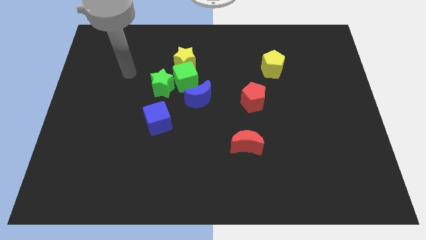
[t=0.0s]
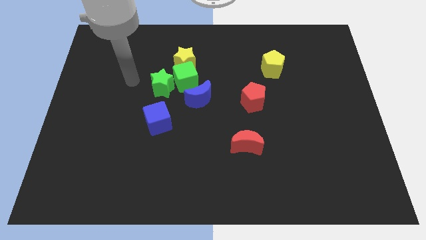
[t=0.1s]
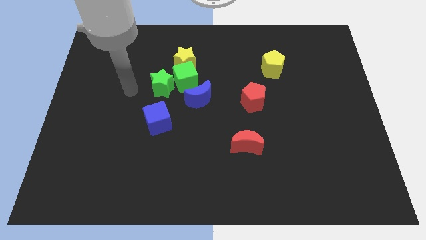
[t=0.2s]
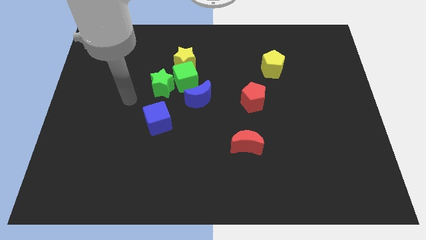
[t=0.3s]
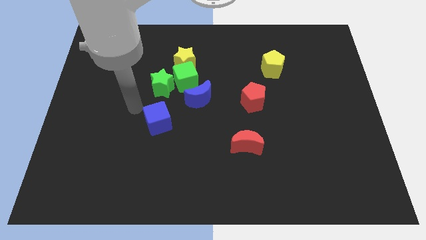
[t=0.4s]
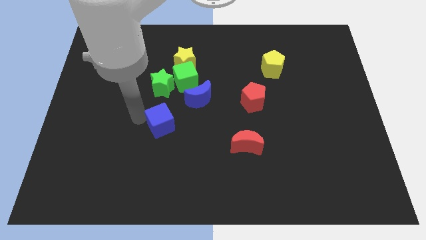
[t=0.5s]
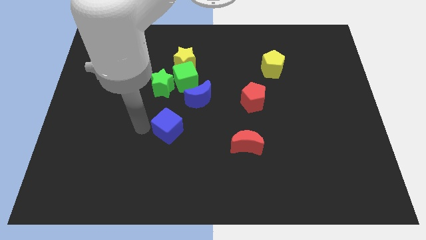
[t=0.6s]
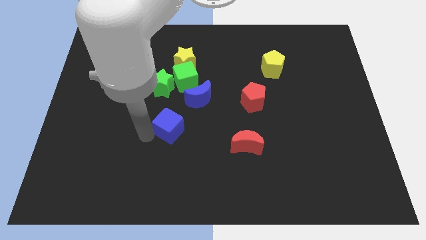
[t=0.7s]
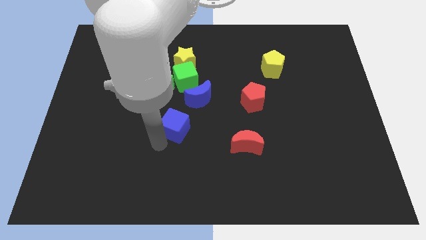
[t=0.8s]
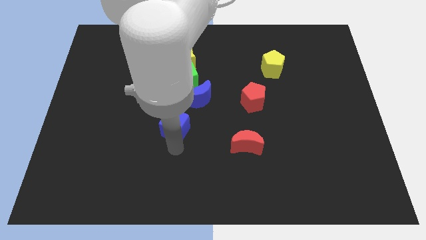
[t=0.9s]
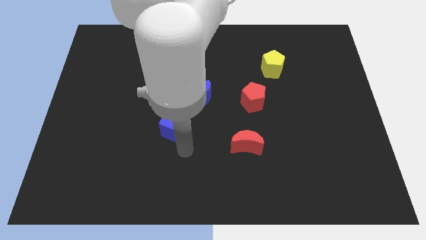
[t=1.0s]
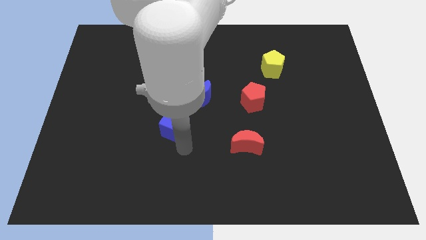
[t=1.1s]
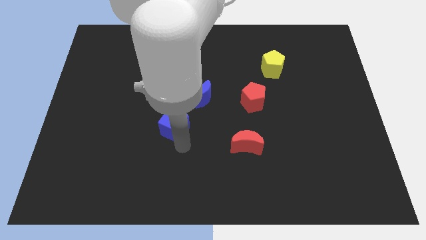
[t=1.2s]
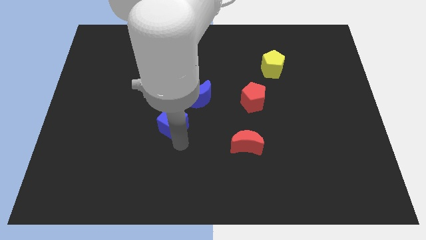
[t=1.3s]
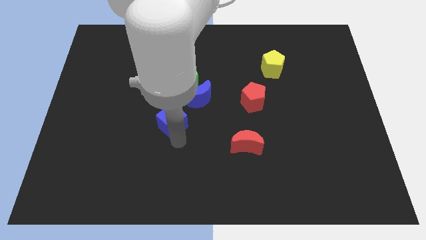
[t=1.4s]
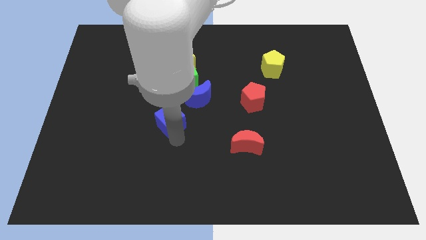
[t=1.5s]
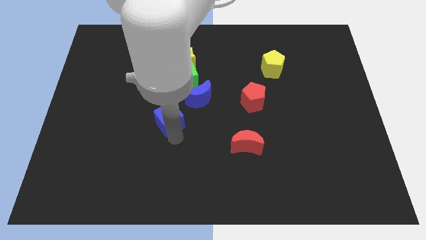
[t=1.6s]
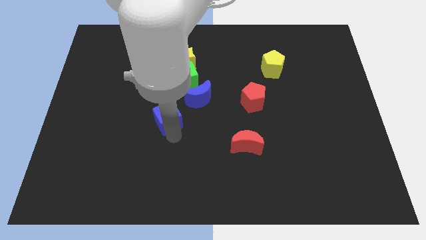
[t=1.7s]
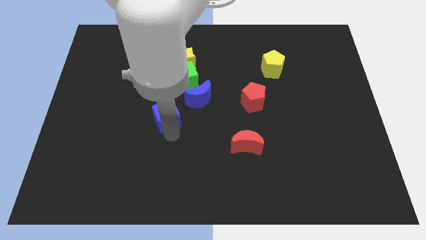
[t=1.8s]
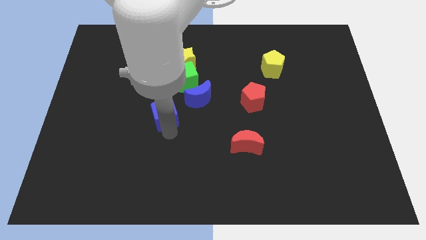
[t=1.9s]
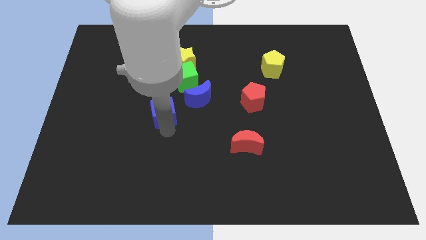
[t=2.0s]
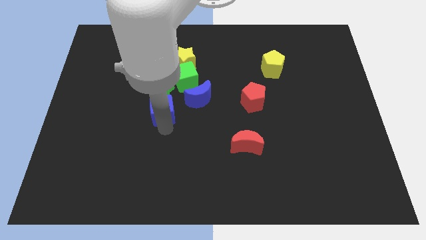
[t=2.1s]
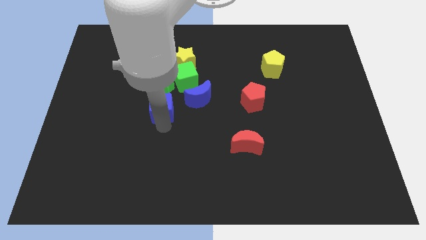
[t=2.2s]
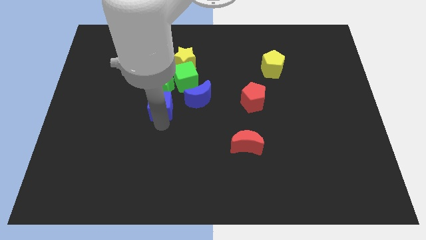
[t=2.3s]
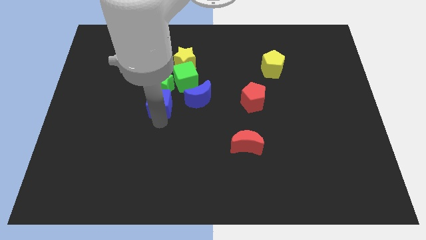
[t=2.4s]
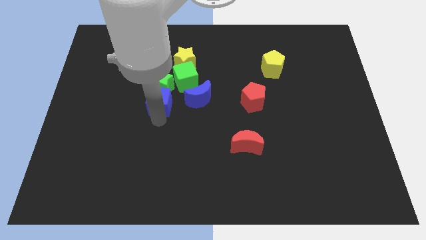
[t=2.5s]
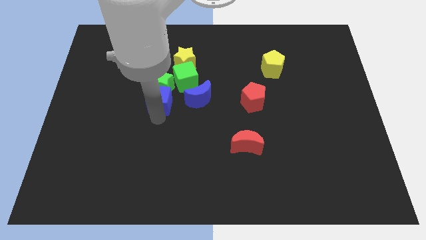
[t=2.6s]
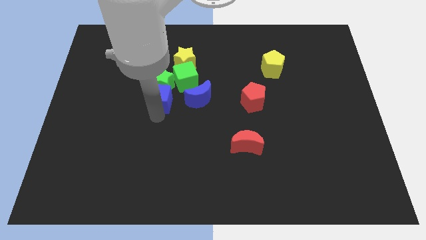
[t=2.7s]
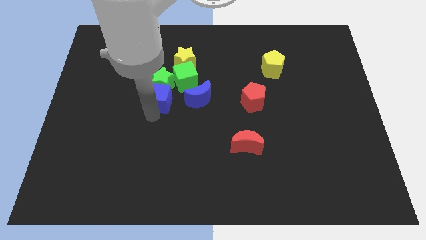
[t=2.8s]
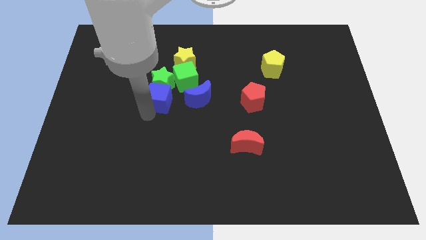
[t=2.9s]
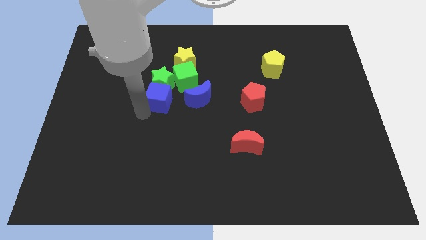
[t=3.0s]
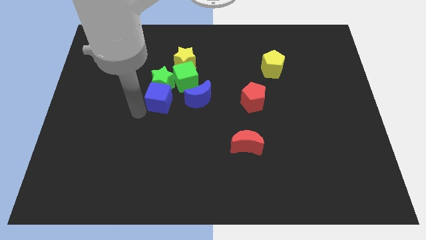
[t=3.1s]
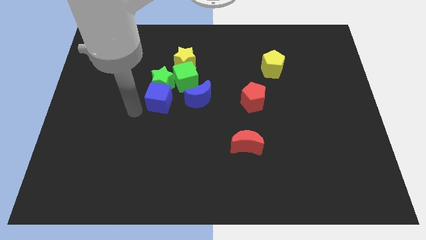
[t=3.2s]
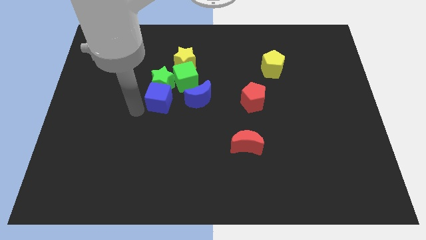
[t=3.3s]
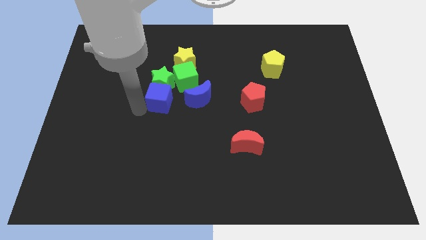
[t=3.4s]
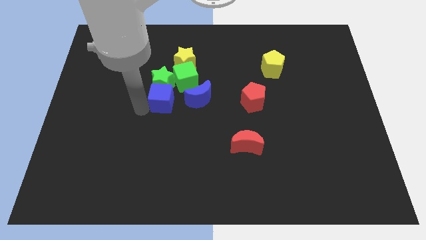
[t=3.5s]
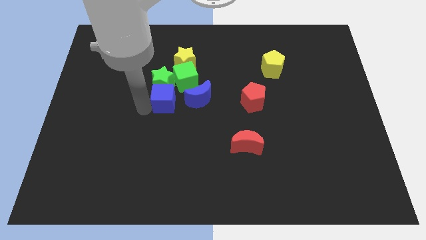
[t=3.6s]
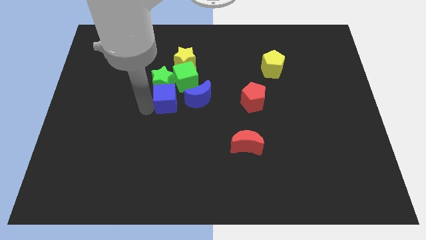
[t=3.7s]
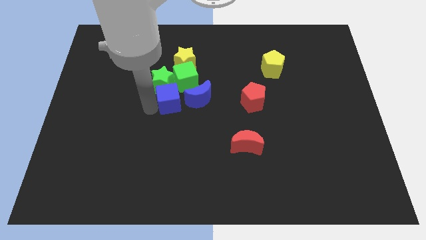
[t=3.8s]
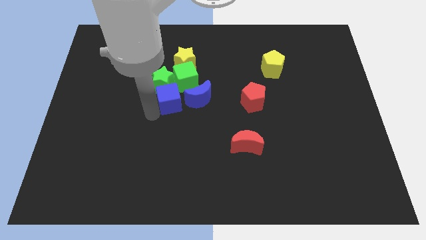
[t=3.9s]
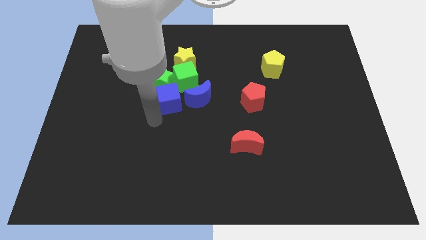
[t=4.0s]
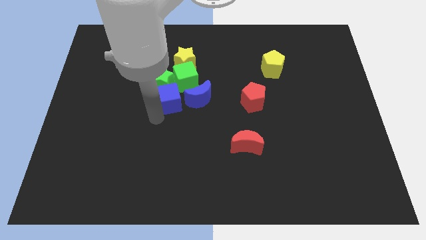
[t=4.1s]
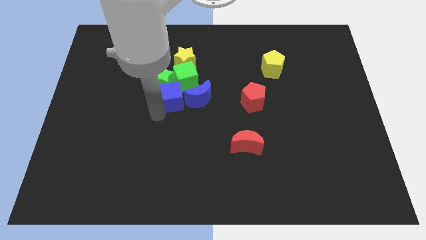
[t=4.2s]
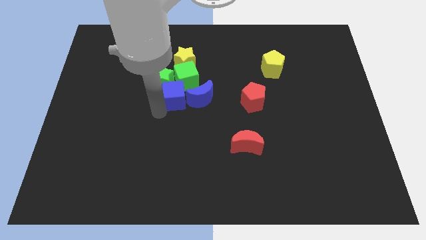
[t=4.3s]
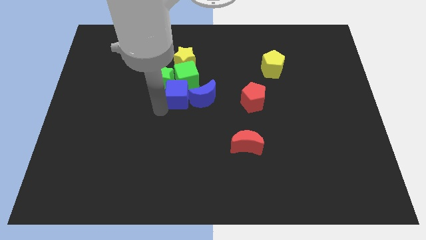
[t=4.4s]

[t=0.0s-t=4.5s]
slide the blue cube next to the green cube

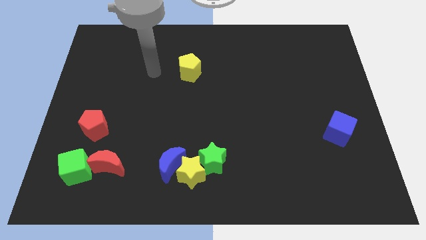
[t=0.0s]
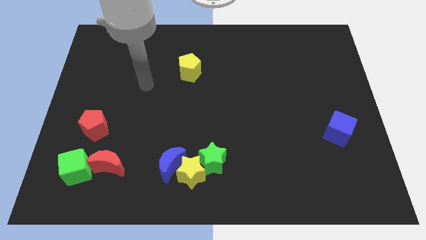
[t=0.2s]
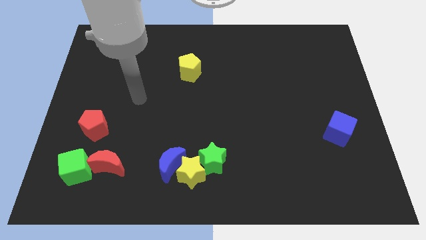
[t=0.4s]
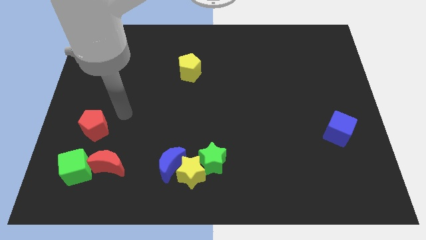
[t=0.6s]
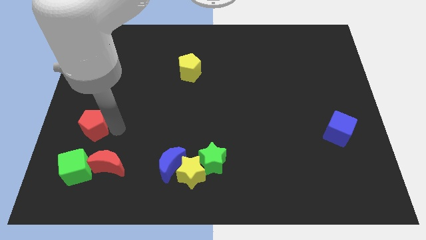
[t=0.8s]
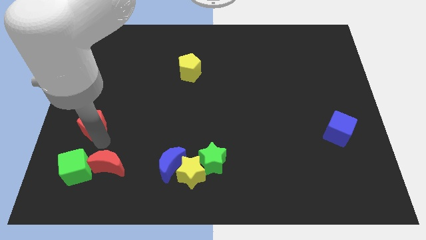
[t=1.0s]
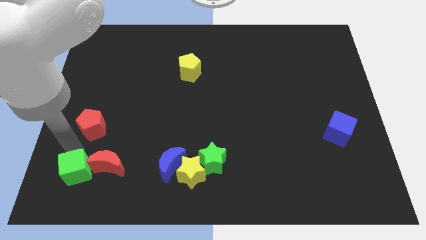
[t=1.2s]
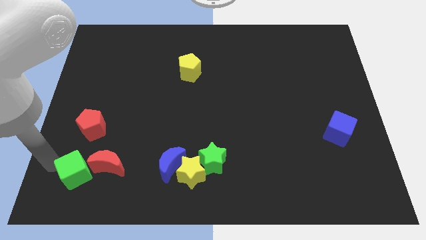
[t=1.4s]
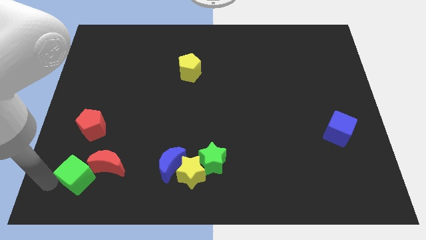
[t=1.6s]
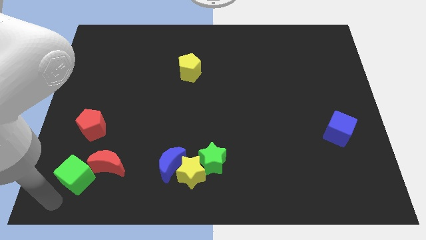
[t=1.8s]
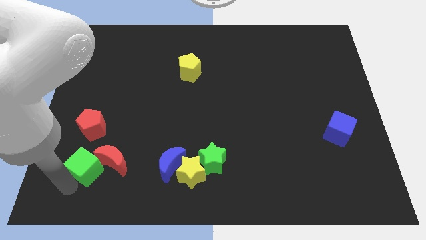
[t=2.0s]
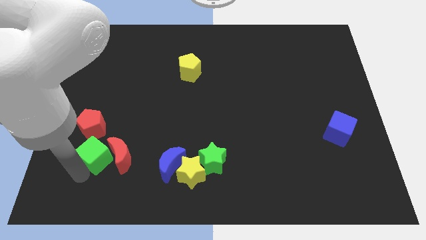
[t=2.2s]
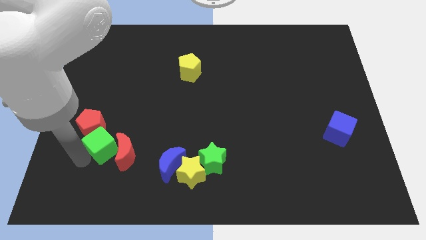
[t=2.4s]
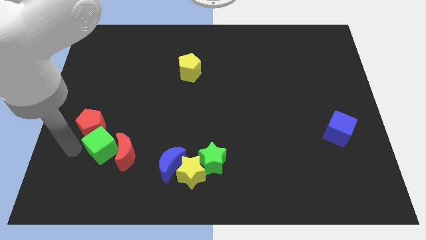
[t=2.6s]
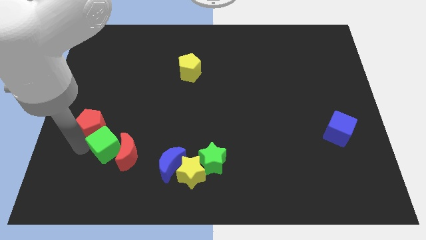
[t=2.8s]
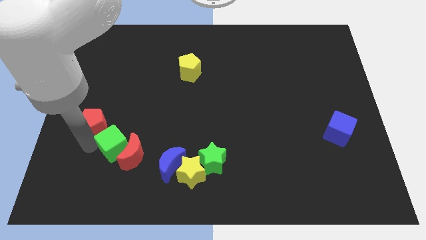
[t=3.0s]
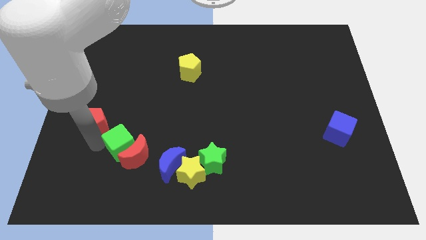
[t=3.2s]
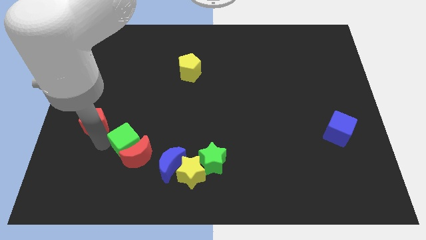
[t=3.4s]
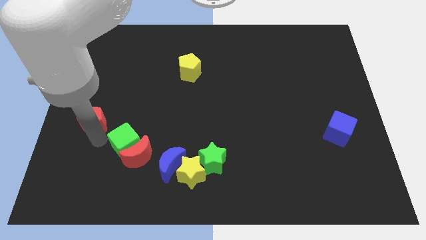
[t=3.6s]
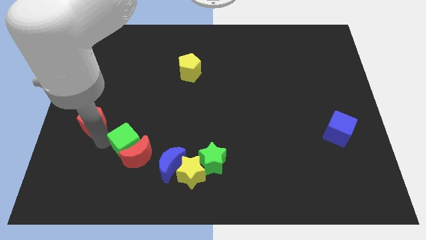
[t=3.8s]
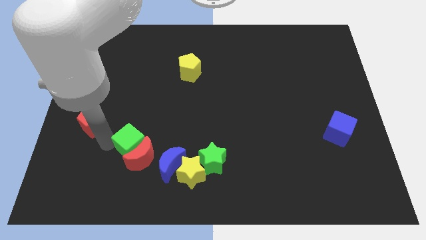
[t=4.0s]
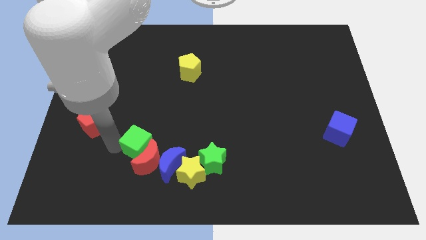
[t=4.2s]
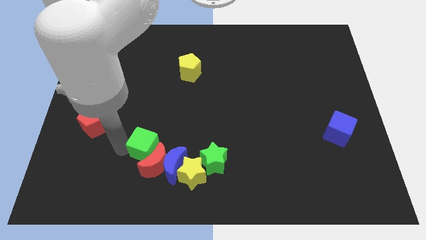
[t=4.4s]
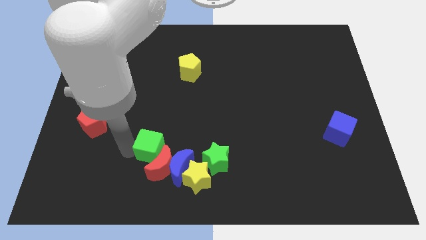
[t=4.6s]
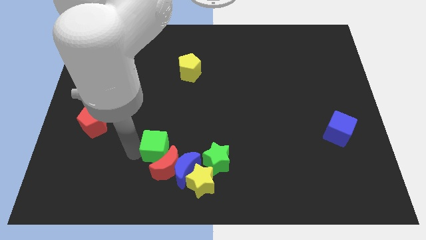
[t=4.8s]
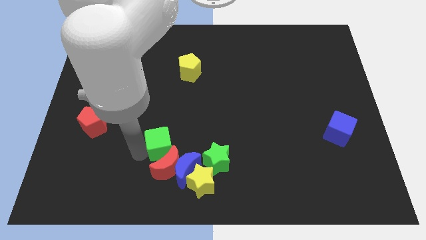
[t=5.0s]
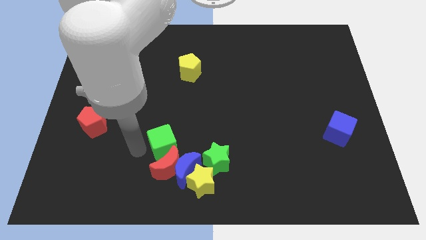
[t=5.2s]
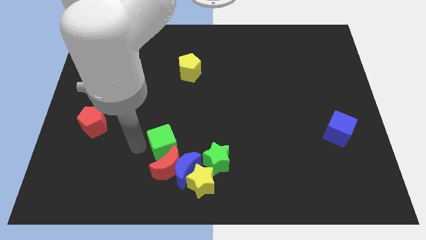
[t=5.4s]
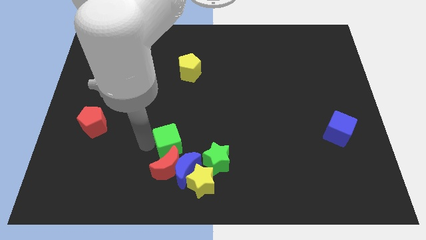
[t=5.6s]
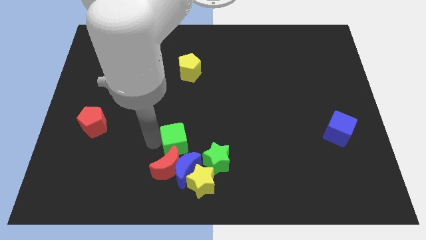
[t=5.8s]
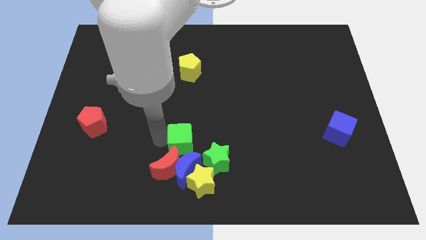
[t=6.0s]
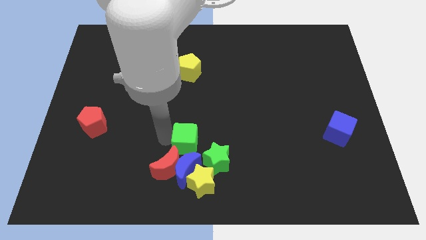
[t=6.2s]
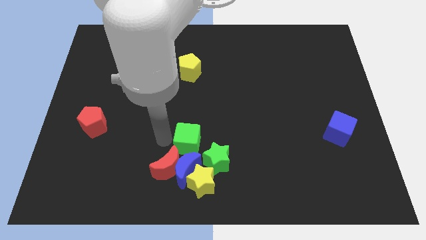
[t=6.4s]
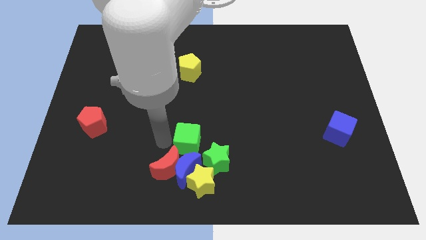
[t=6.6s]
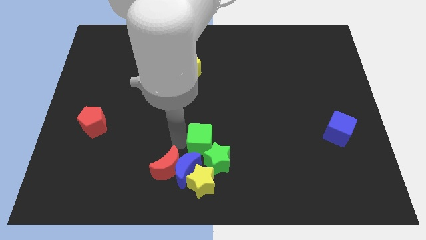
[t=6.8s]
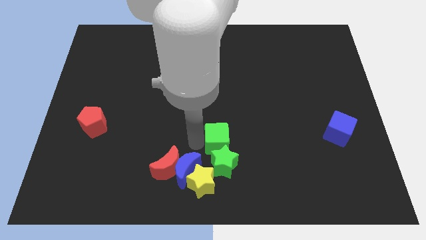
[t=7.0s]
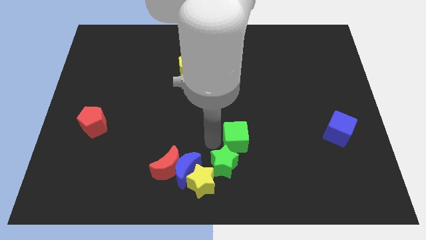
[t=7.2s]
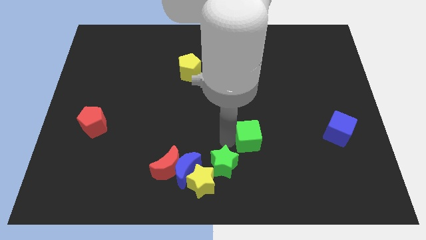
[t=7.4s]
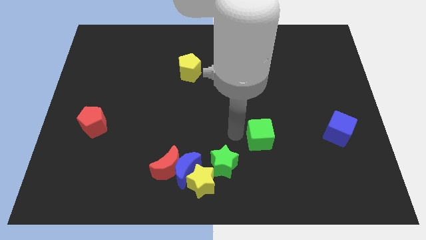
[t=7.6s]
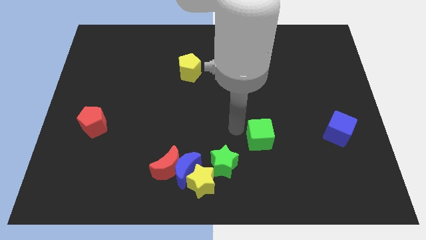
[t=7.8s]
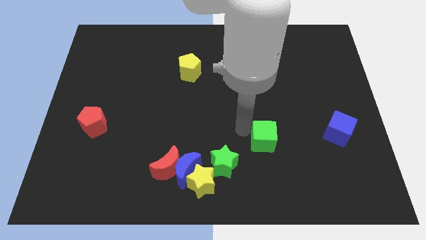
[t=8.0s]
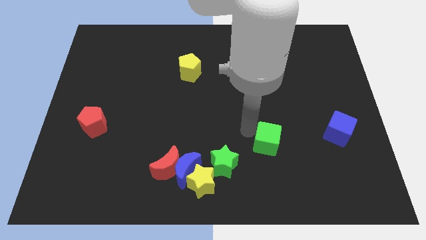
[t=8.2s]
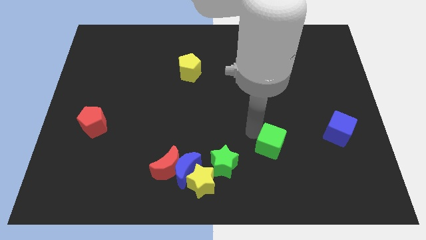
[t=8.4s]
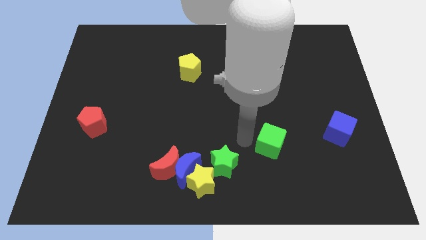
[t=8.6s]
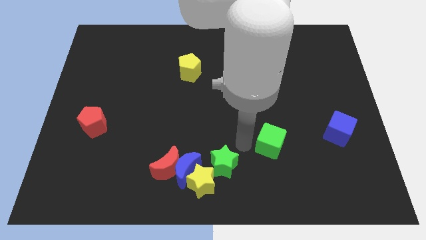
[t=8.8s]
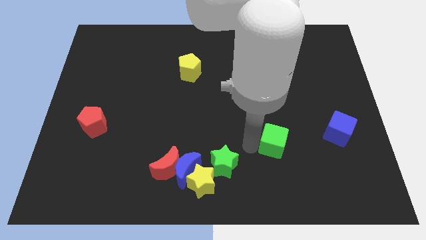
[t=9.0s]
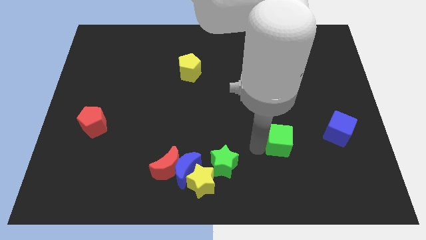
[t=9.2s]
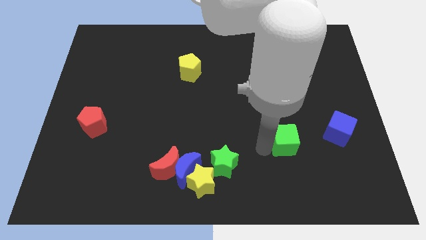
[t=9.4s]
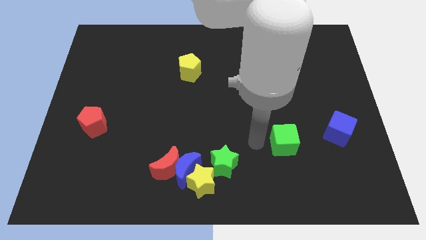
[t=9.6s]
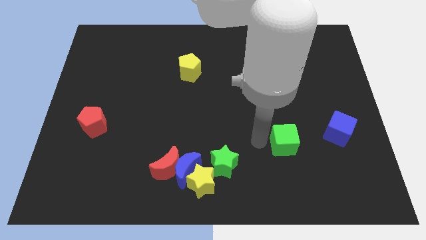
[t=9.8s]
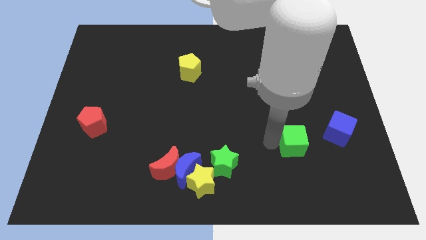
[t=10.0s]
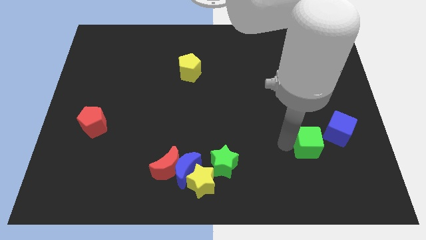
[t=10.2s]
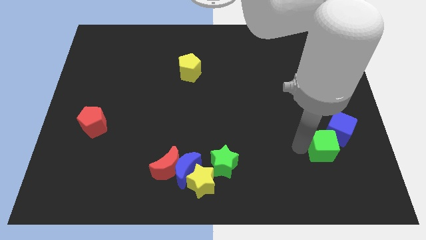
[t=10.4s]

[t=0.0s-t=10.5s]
slide the green cube close to the blue cube
